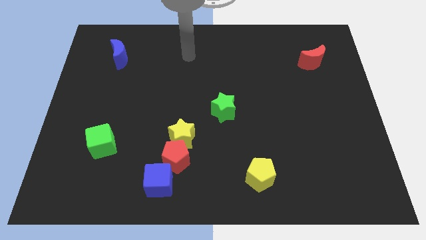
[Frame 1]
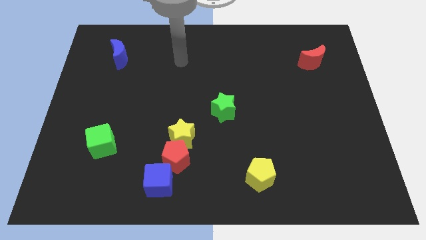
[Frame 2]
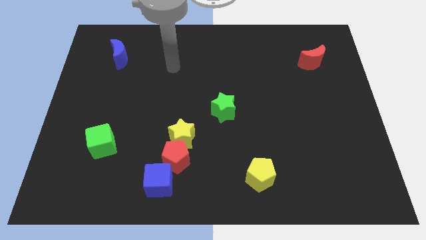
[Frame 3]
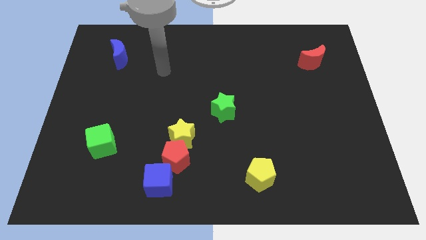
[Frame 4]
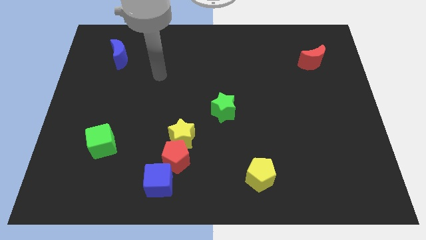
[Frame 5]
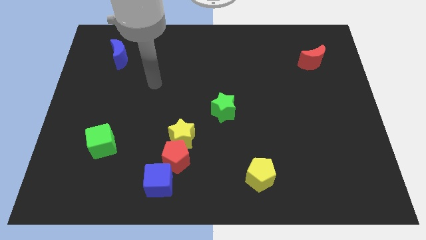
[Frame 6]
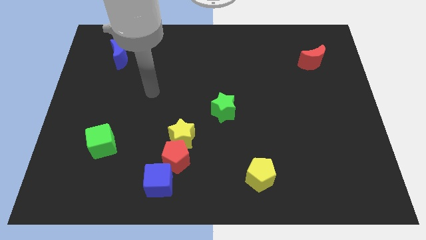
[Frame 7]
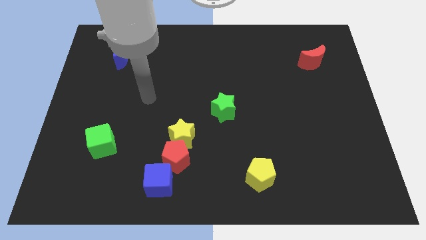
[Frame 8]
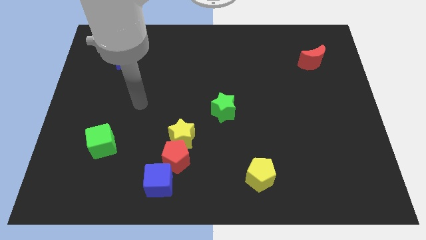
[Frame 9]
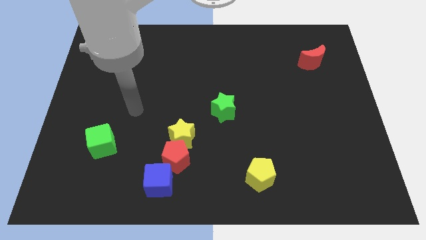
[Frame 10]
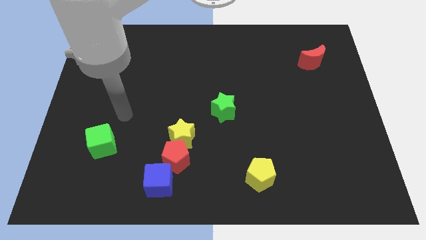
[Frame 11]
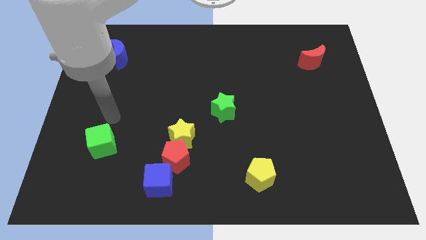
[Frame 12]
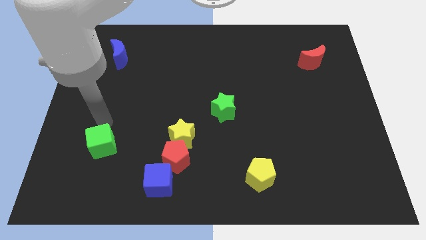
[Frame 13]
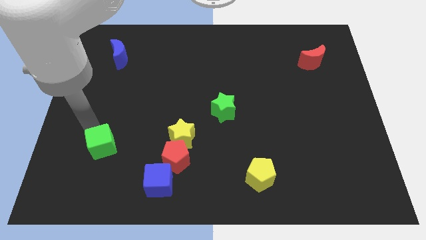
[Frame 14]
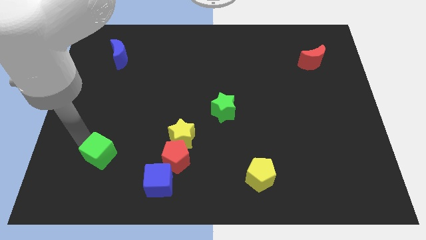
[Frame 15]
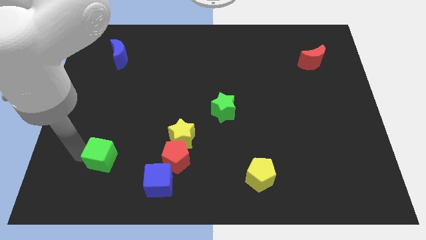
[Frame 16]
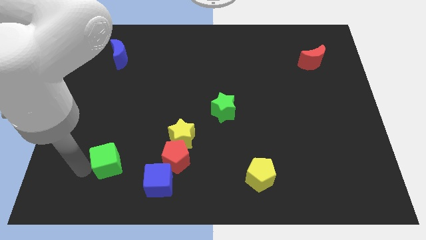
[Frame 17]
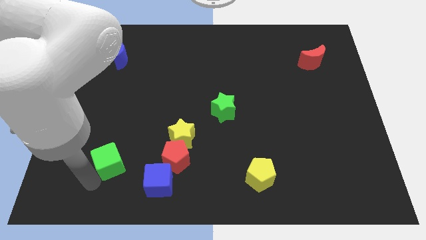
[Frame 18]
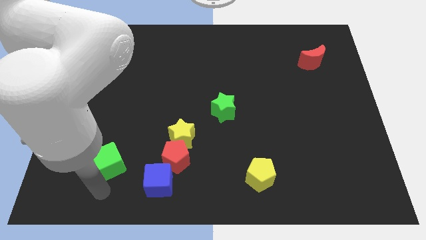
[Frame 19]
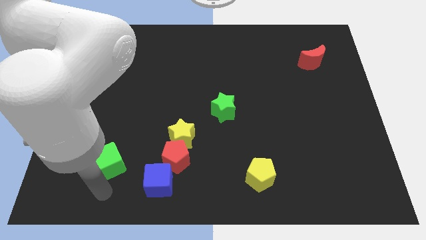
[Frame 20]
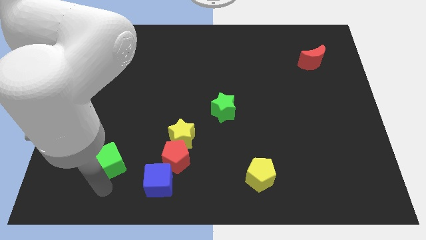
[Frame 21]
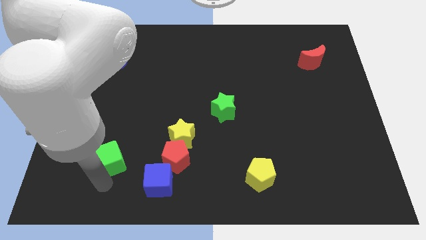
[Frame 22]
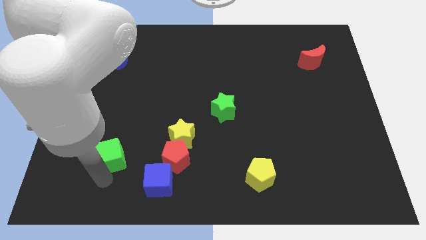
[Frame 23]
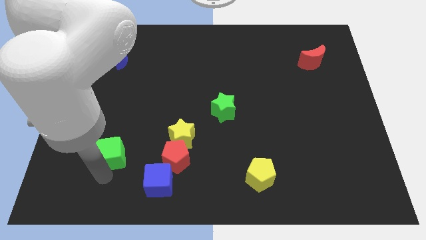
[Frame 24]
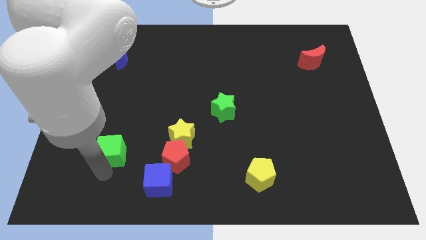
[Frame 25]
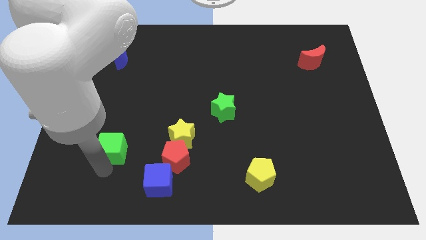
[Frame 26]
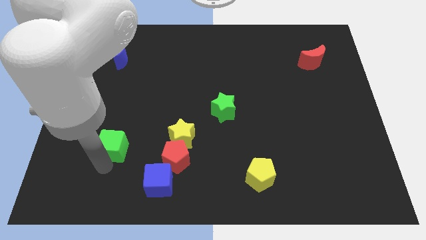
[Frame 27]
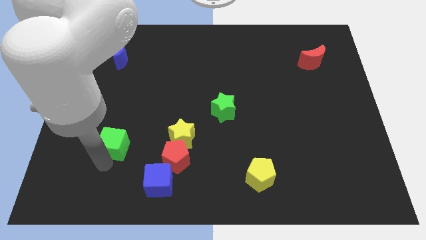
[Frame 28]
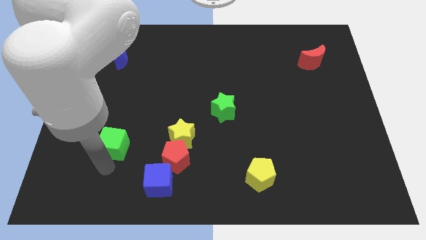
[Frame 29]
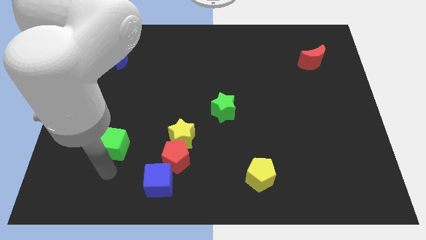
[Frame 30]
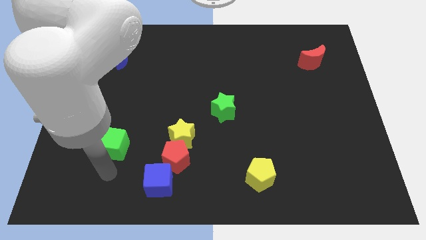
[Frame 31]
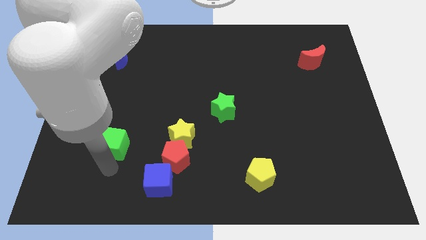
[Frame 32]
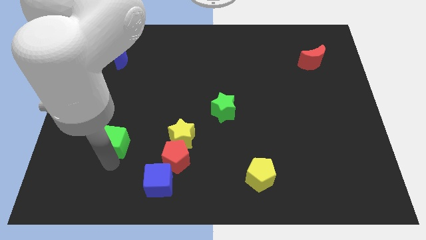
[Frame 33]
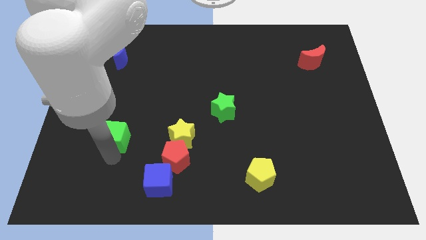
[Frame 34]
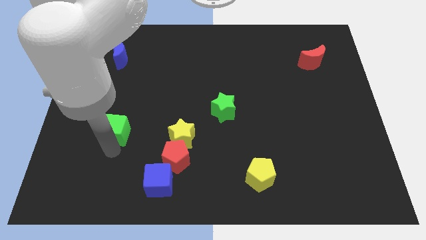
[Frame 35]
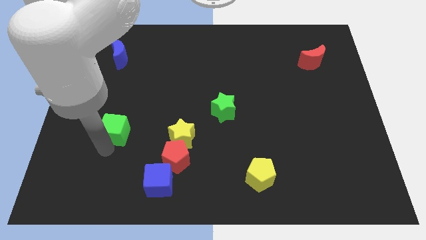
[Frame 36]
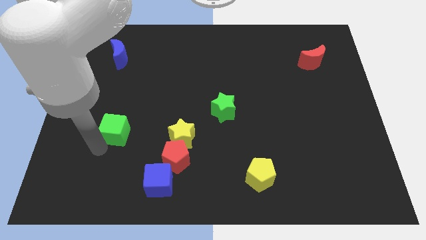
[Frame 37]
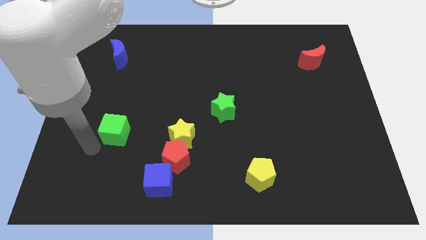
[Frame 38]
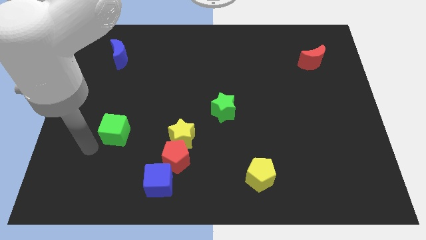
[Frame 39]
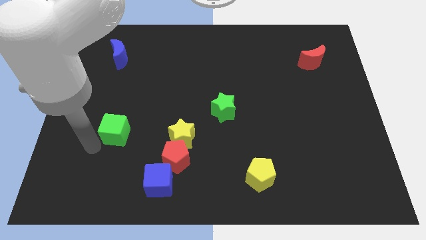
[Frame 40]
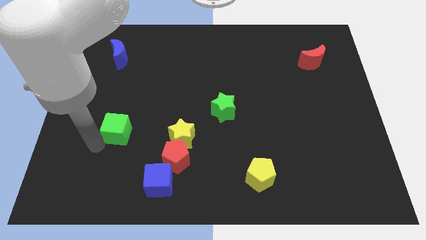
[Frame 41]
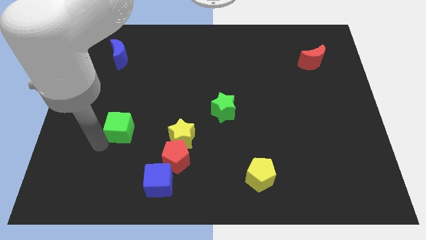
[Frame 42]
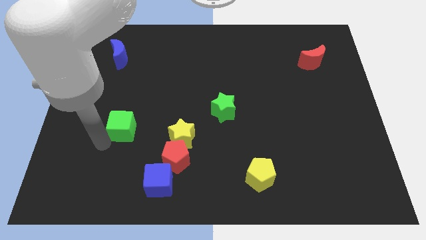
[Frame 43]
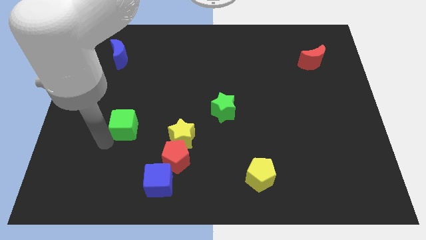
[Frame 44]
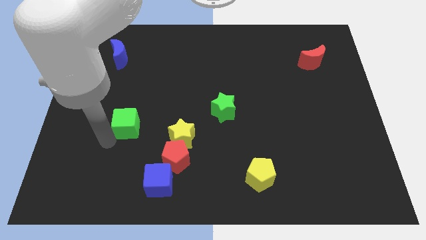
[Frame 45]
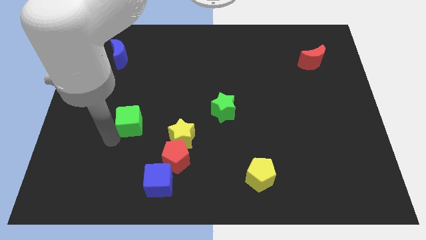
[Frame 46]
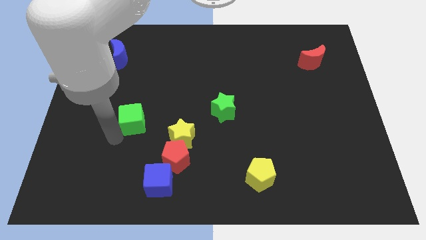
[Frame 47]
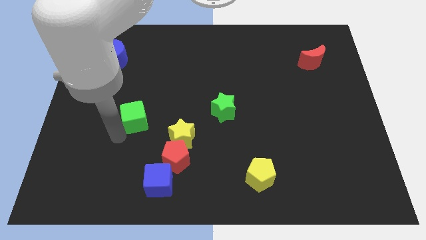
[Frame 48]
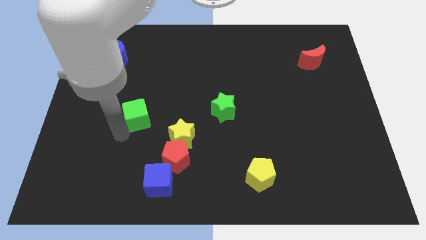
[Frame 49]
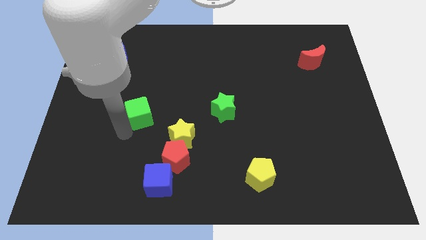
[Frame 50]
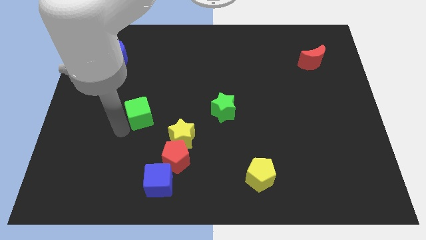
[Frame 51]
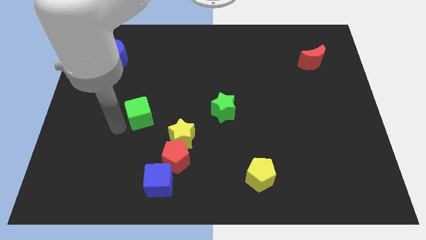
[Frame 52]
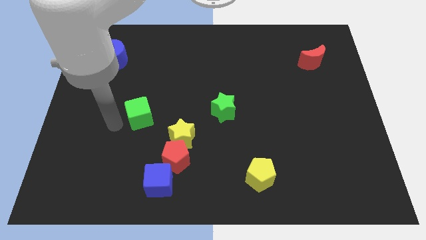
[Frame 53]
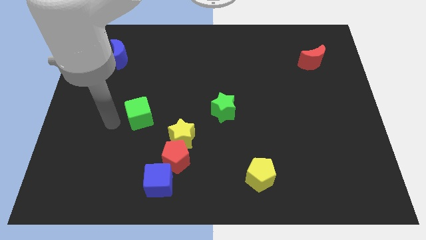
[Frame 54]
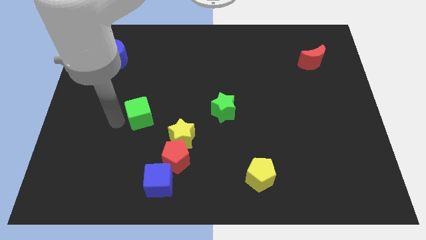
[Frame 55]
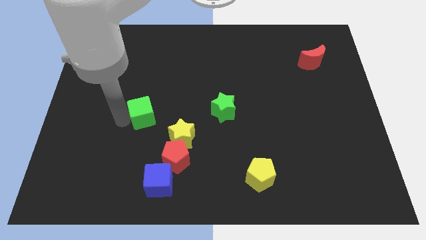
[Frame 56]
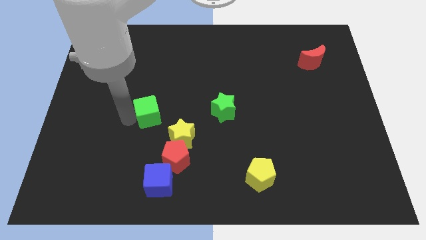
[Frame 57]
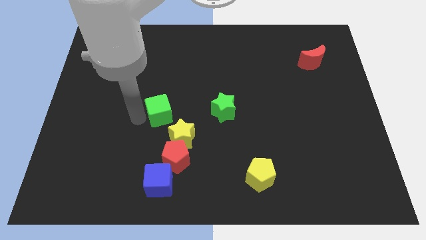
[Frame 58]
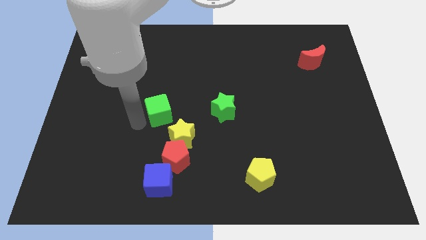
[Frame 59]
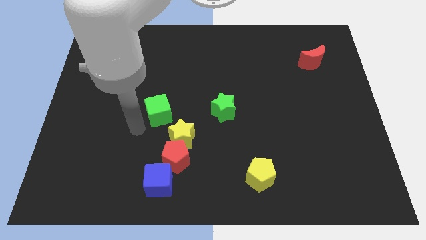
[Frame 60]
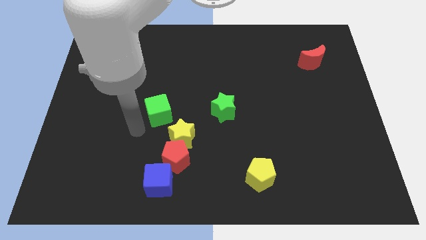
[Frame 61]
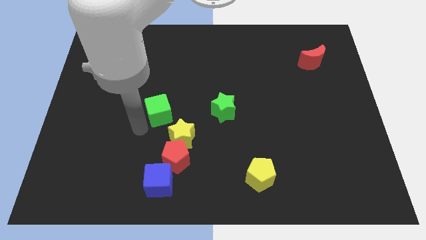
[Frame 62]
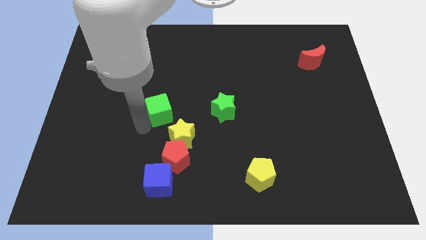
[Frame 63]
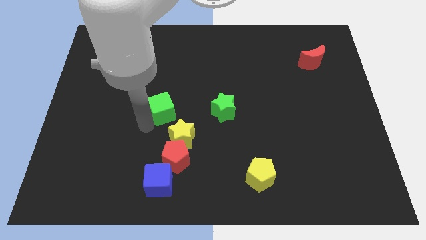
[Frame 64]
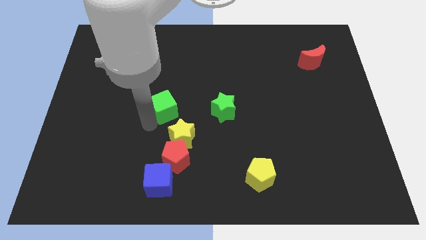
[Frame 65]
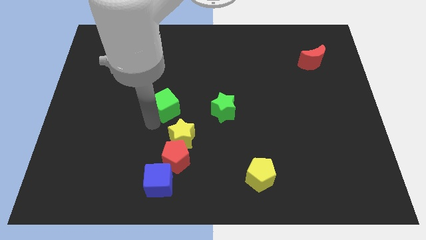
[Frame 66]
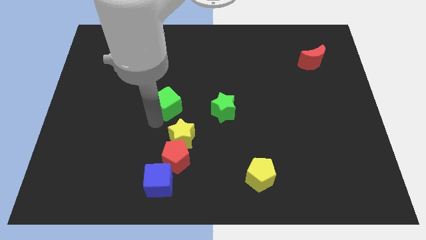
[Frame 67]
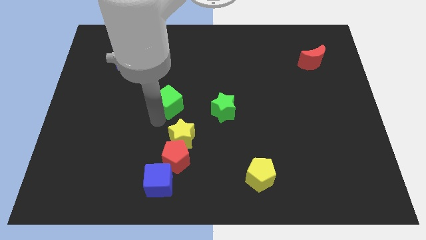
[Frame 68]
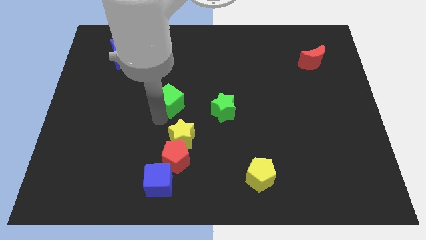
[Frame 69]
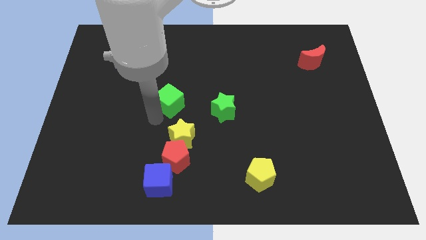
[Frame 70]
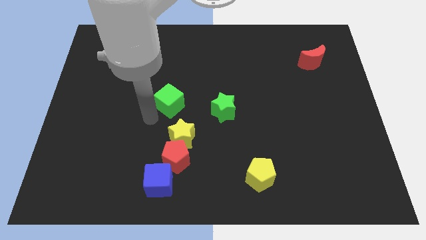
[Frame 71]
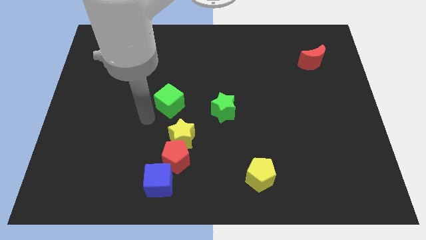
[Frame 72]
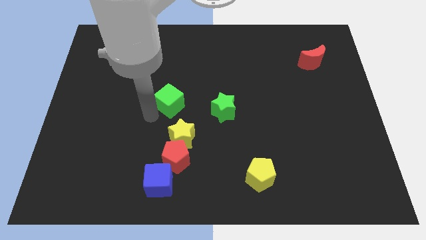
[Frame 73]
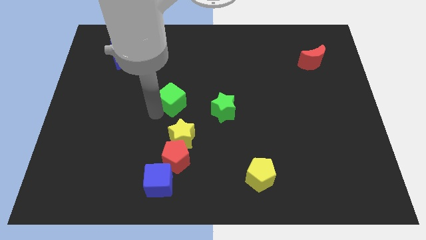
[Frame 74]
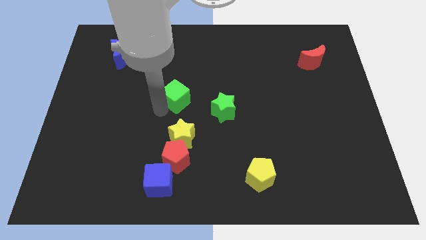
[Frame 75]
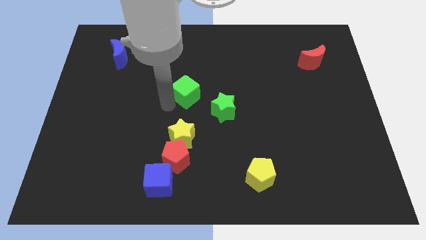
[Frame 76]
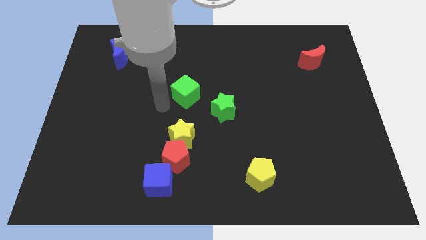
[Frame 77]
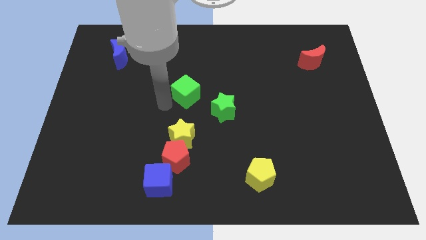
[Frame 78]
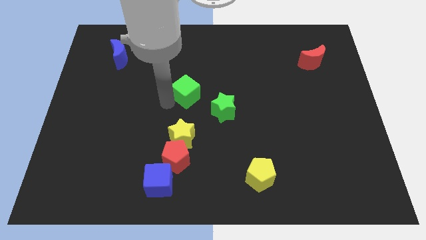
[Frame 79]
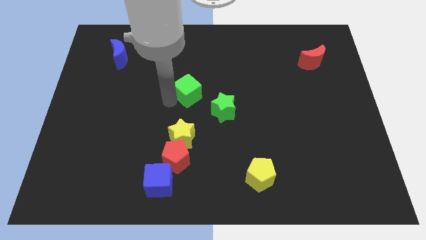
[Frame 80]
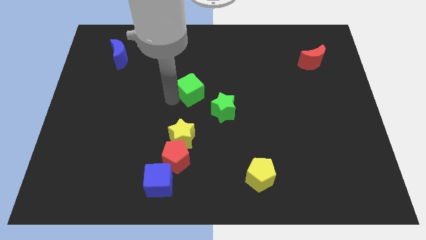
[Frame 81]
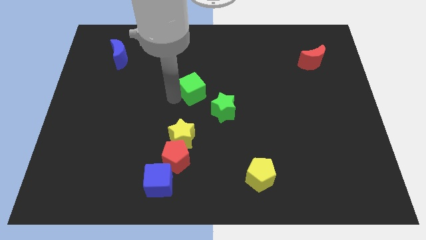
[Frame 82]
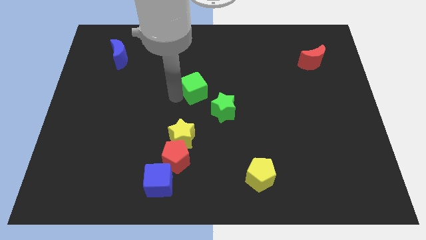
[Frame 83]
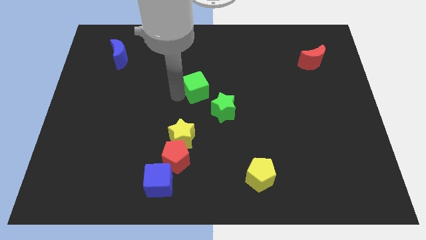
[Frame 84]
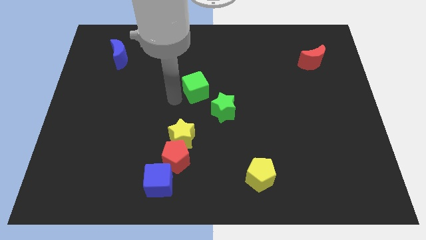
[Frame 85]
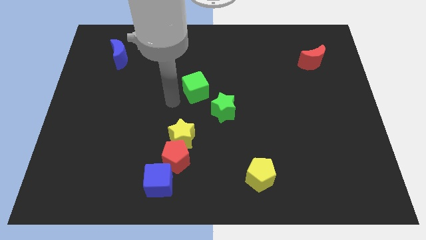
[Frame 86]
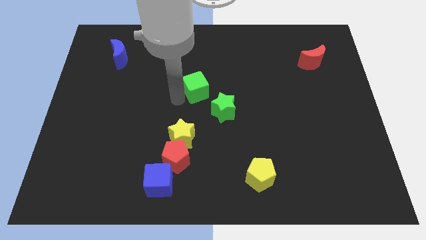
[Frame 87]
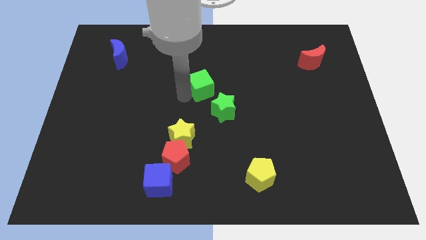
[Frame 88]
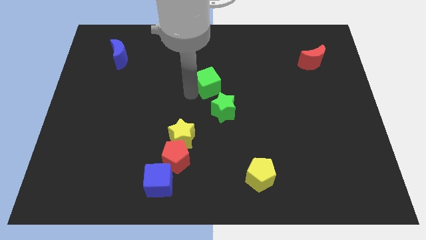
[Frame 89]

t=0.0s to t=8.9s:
move the green cube to the top side of the green star
